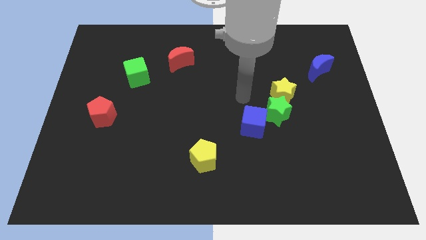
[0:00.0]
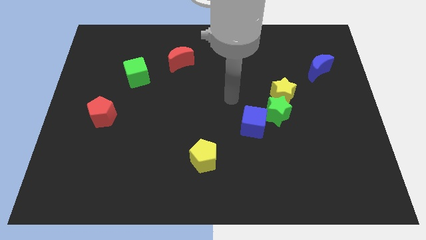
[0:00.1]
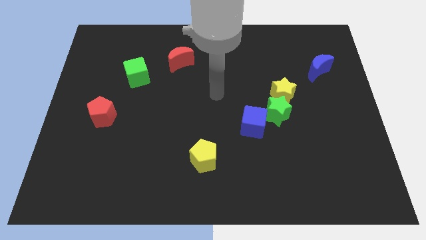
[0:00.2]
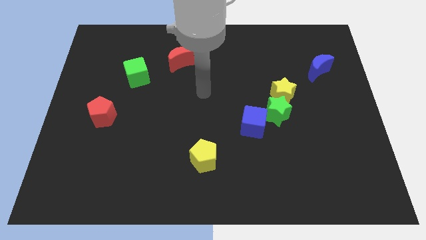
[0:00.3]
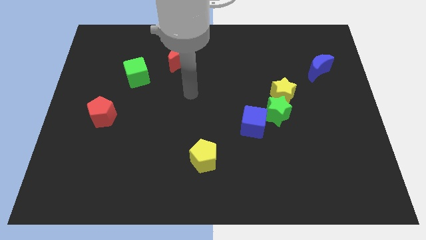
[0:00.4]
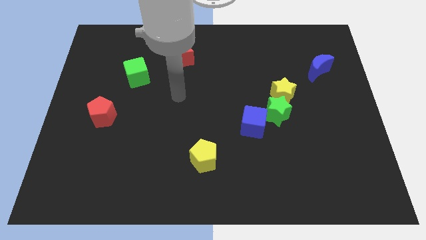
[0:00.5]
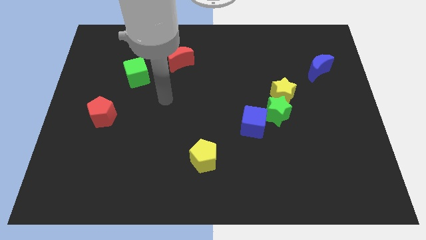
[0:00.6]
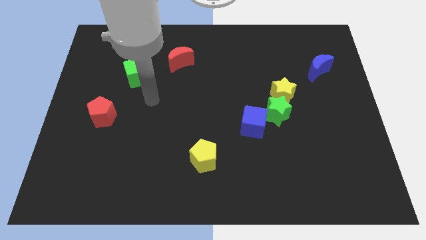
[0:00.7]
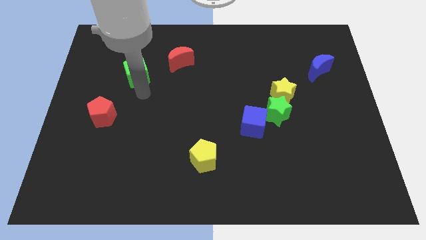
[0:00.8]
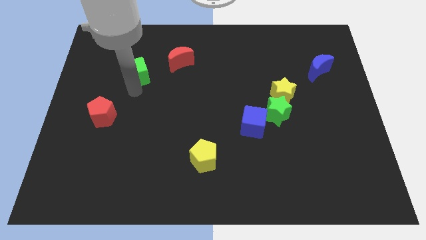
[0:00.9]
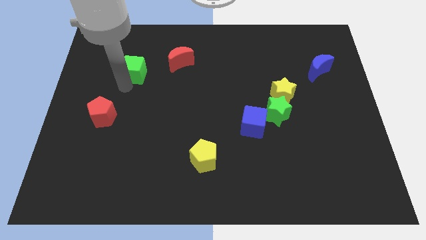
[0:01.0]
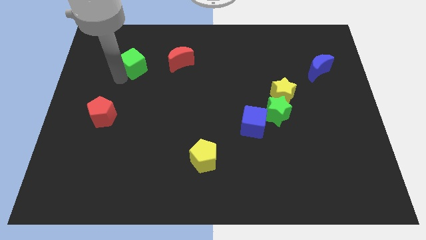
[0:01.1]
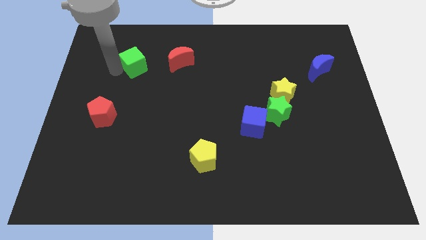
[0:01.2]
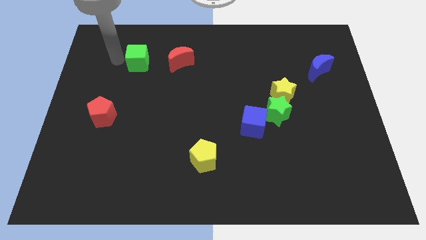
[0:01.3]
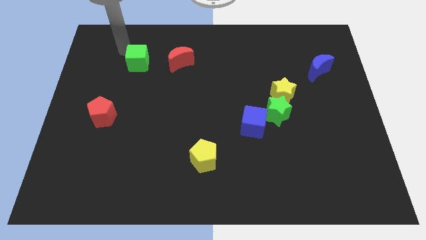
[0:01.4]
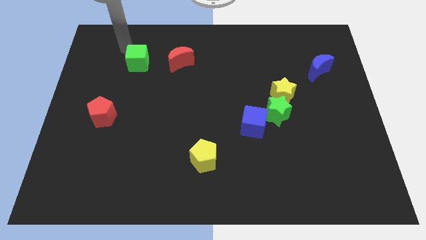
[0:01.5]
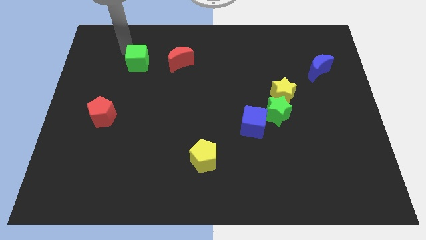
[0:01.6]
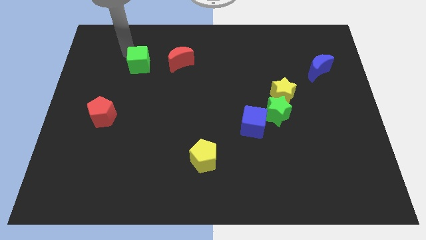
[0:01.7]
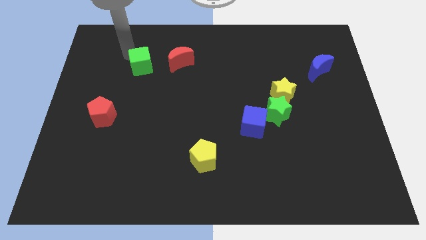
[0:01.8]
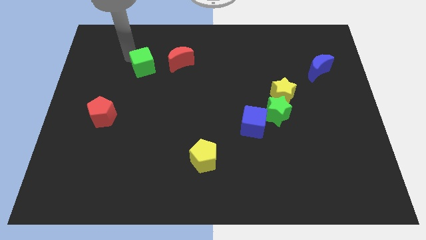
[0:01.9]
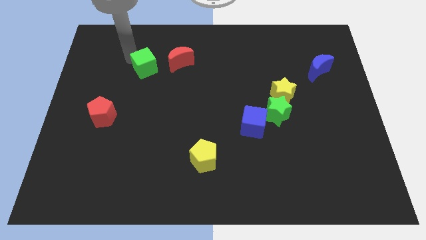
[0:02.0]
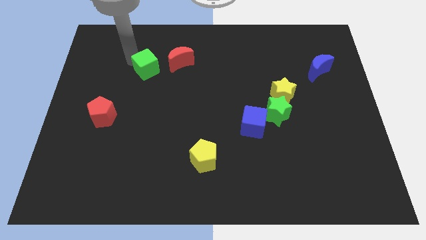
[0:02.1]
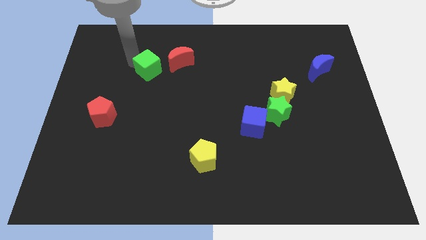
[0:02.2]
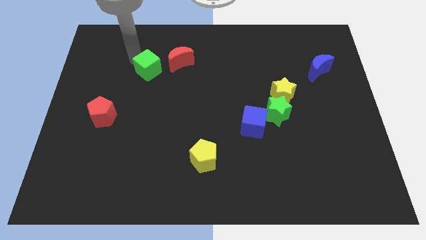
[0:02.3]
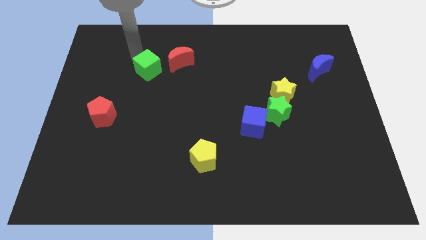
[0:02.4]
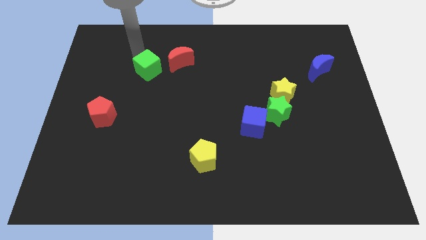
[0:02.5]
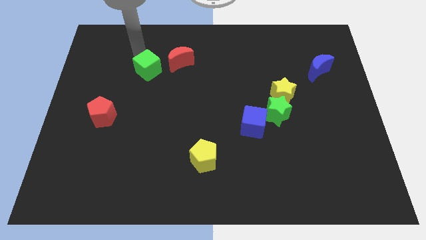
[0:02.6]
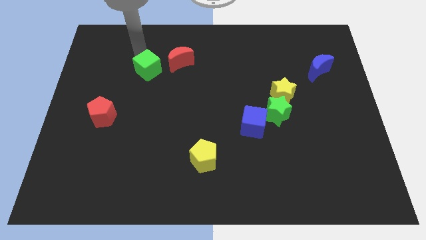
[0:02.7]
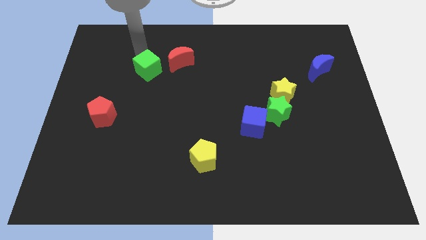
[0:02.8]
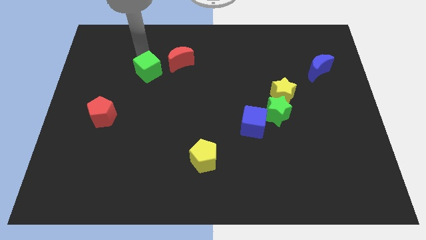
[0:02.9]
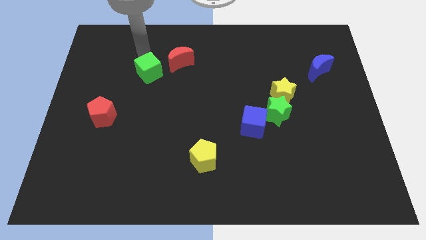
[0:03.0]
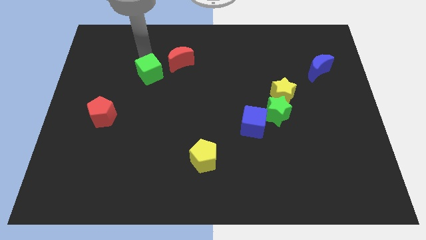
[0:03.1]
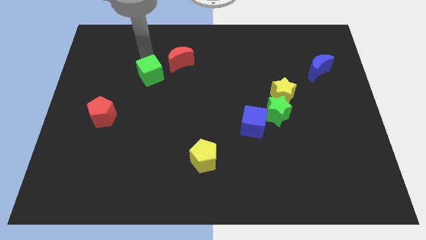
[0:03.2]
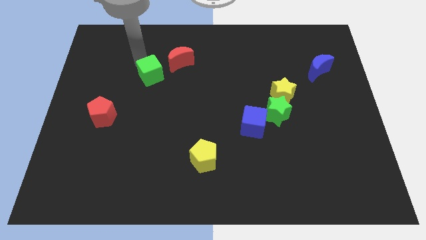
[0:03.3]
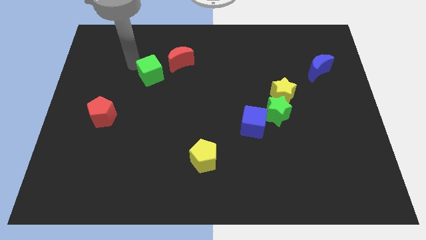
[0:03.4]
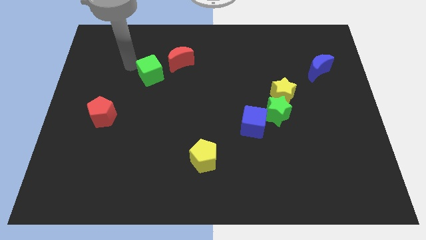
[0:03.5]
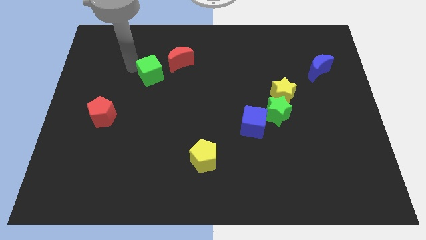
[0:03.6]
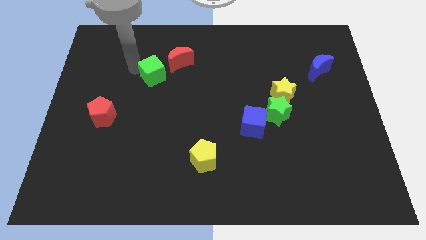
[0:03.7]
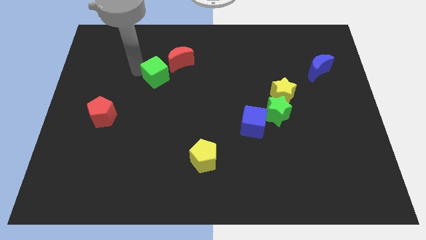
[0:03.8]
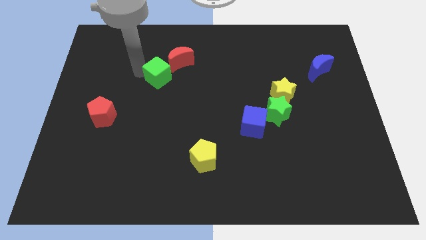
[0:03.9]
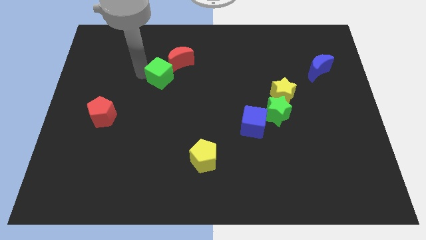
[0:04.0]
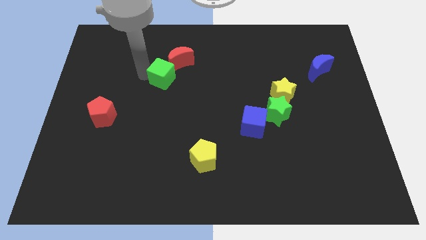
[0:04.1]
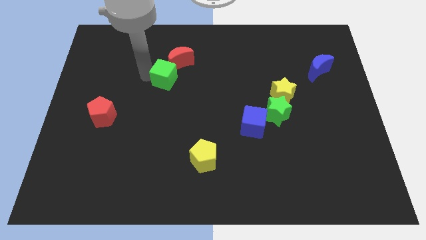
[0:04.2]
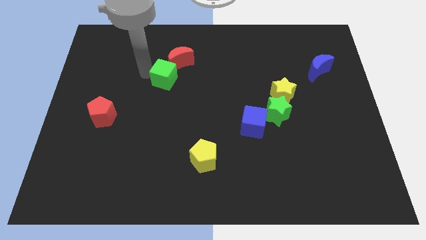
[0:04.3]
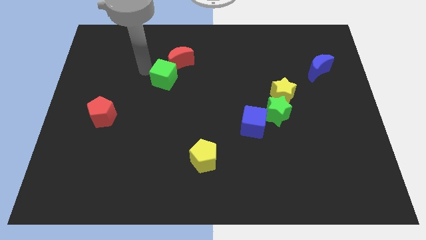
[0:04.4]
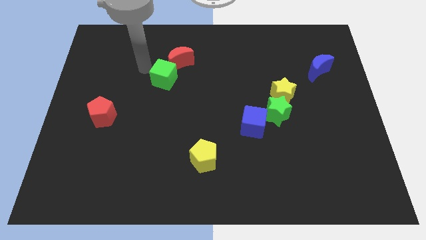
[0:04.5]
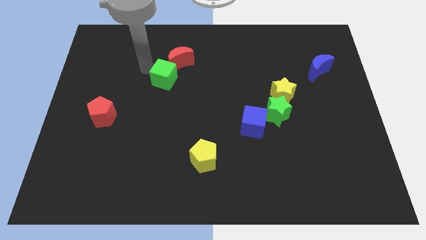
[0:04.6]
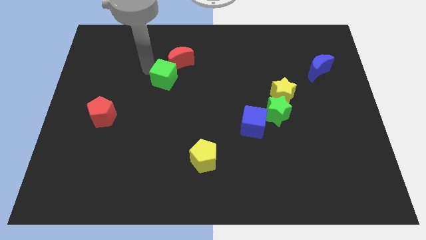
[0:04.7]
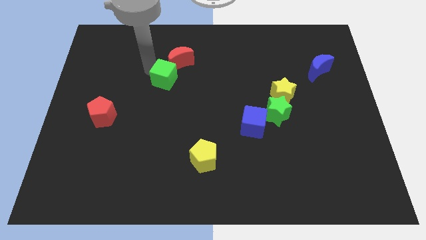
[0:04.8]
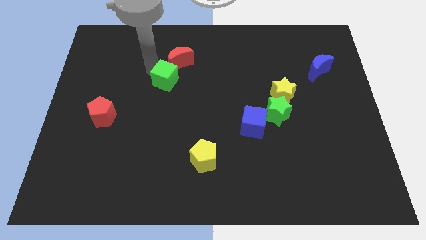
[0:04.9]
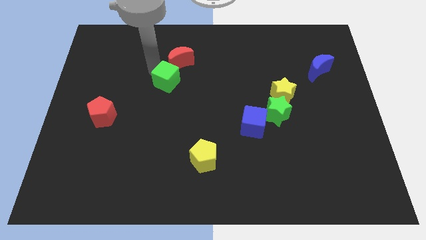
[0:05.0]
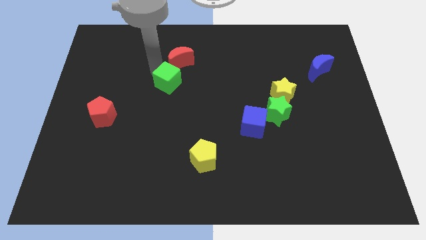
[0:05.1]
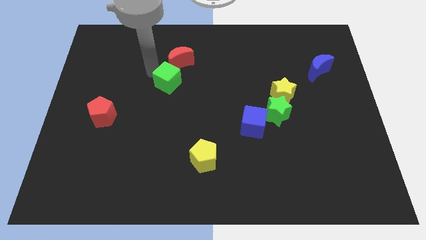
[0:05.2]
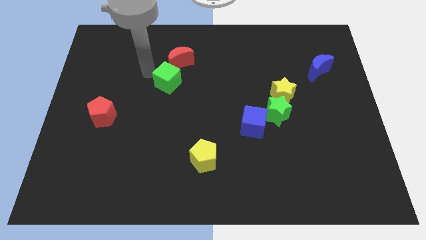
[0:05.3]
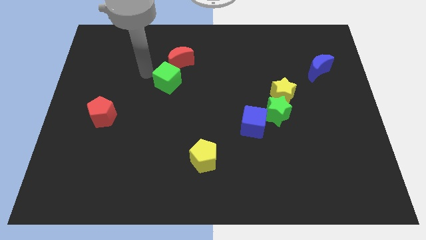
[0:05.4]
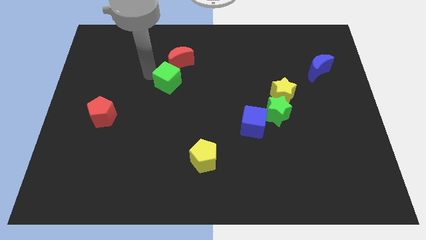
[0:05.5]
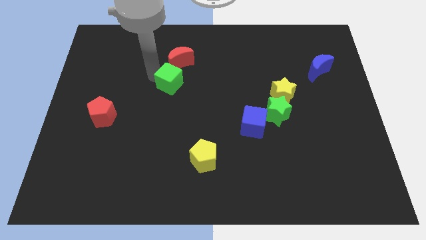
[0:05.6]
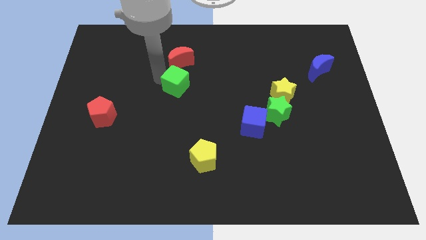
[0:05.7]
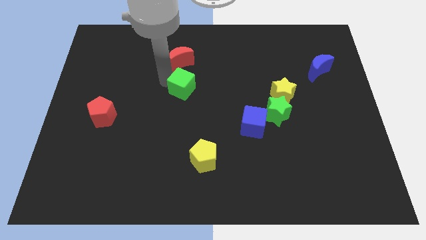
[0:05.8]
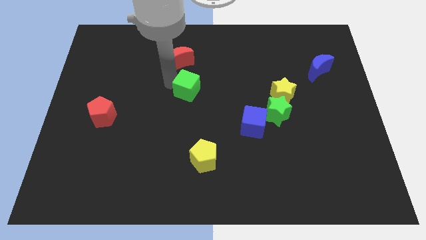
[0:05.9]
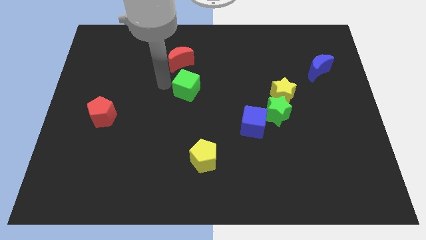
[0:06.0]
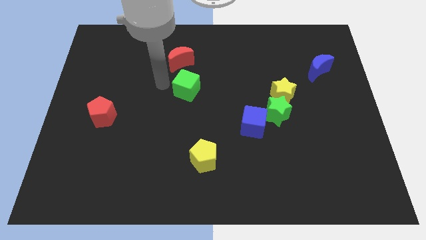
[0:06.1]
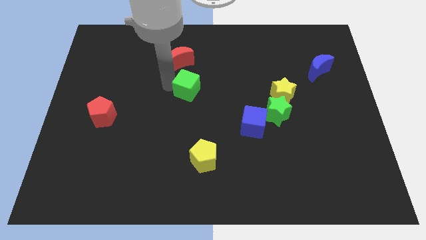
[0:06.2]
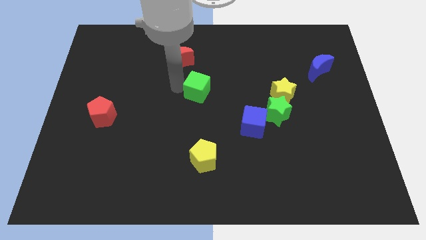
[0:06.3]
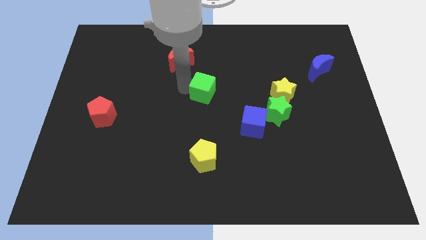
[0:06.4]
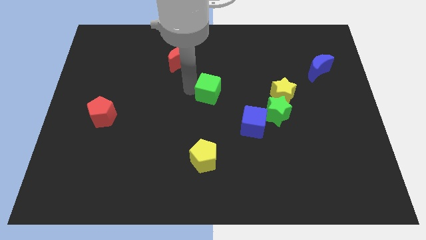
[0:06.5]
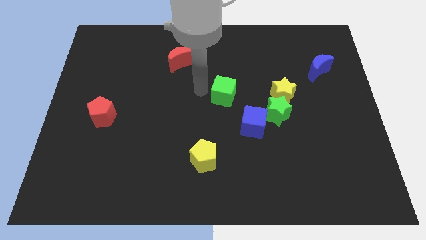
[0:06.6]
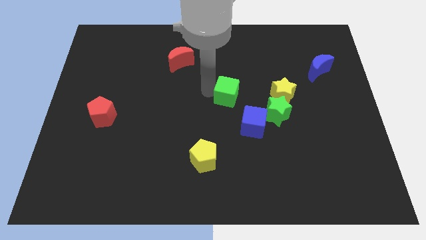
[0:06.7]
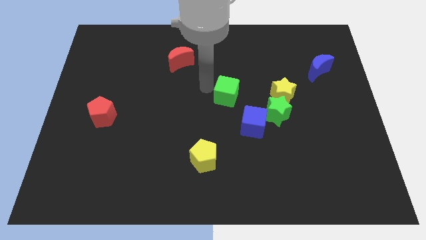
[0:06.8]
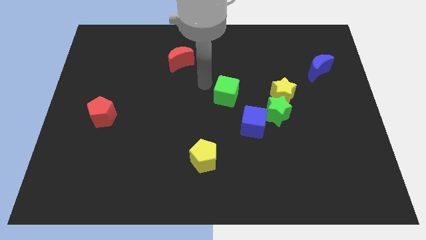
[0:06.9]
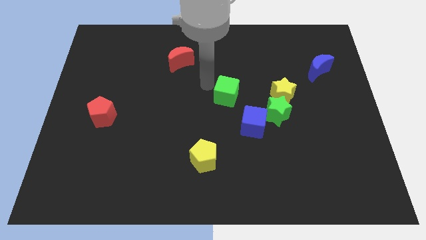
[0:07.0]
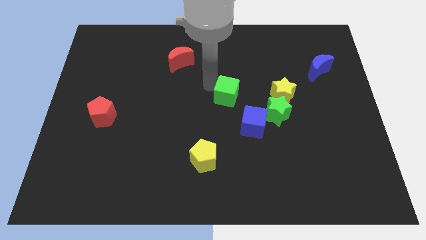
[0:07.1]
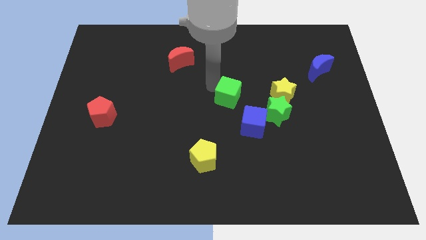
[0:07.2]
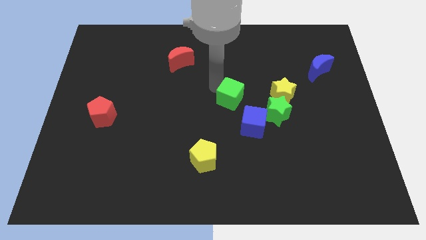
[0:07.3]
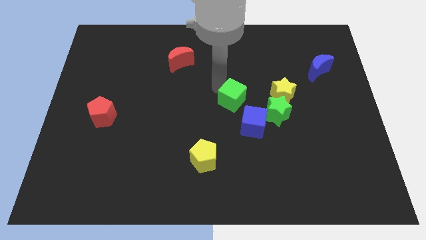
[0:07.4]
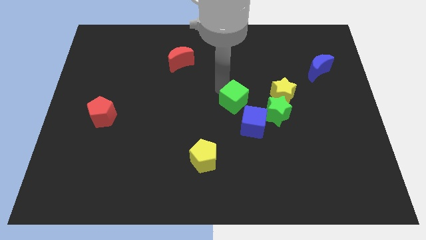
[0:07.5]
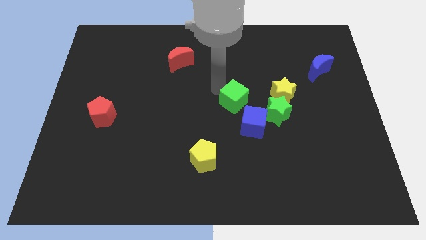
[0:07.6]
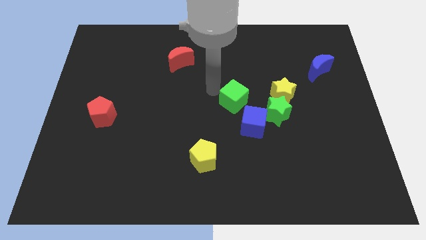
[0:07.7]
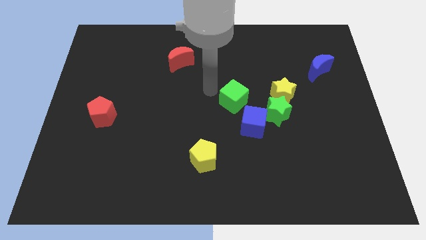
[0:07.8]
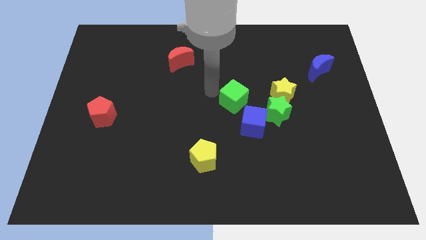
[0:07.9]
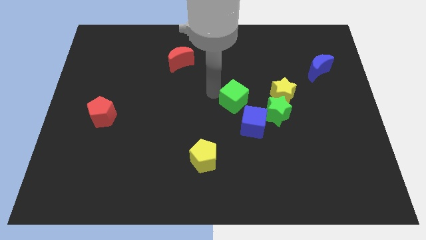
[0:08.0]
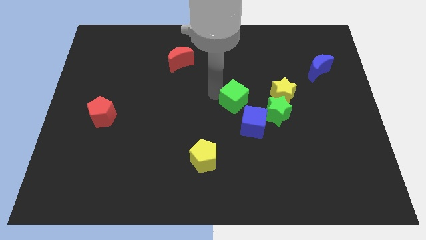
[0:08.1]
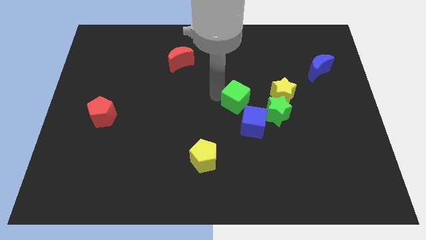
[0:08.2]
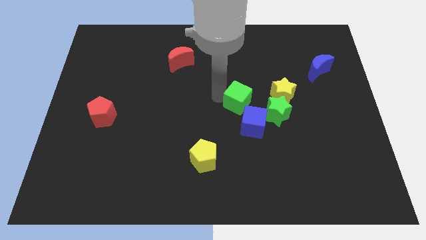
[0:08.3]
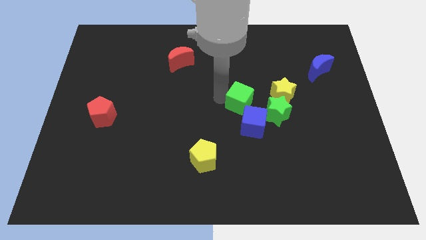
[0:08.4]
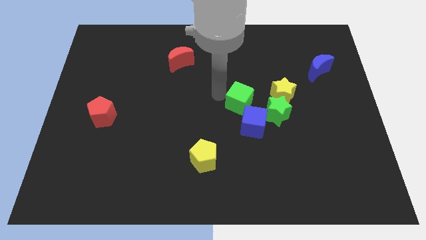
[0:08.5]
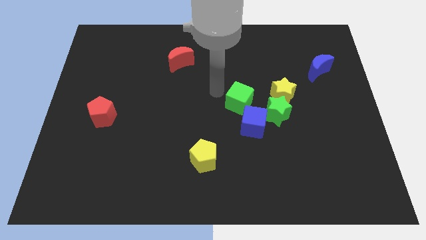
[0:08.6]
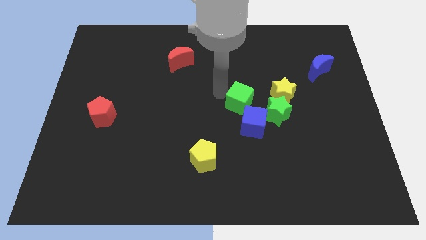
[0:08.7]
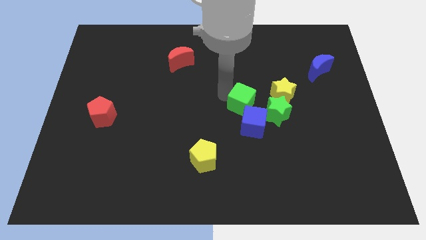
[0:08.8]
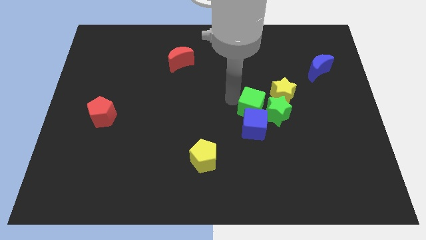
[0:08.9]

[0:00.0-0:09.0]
slide the green cube next to the green star
